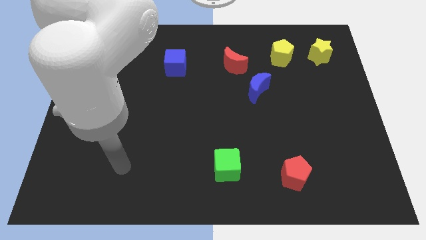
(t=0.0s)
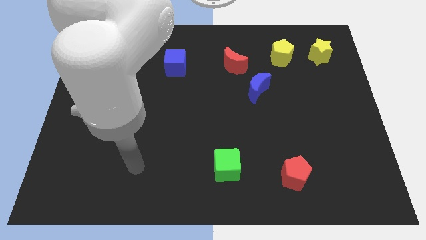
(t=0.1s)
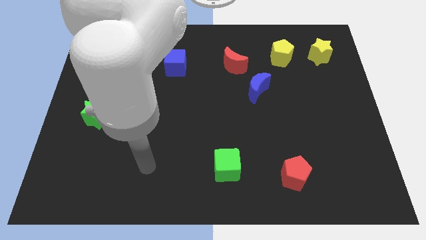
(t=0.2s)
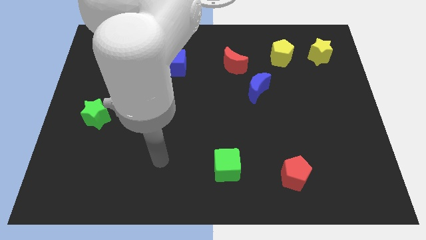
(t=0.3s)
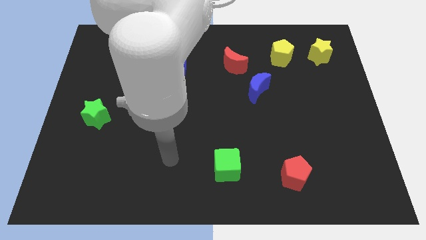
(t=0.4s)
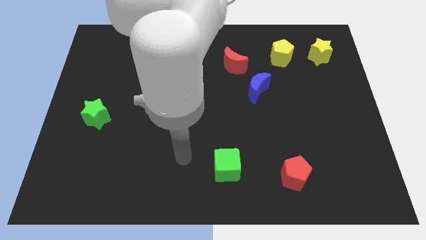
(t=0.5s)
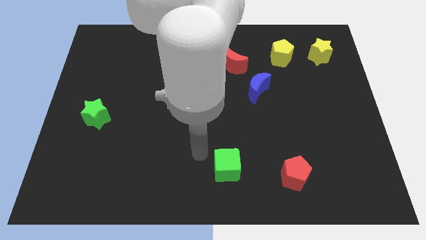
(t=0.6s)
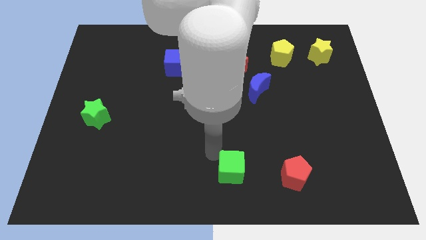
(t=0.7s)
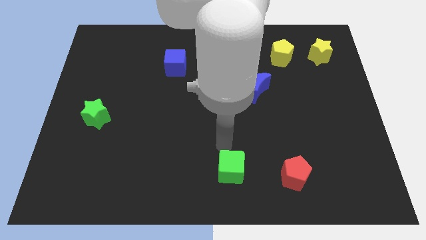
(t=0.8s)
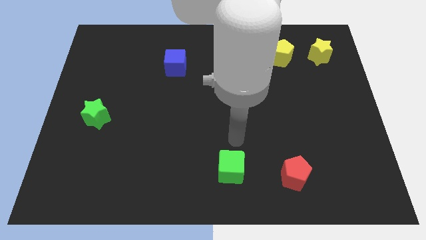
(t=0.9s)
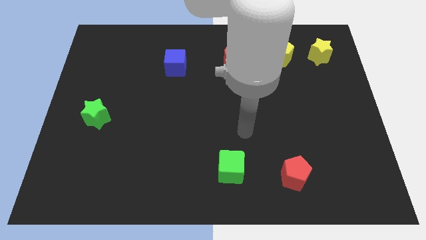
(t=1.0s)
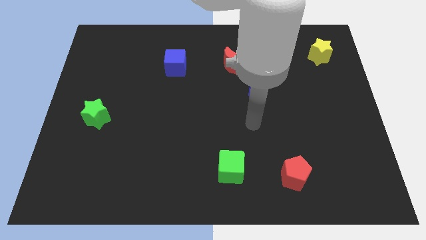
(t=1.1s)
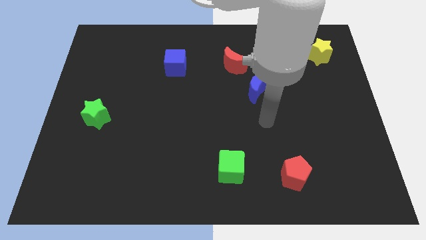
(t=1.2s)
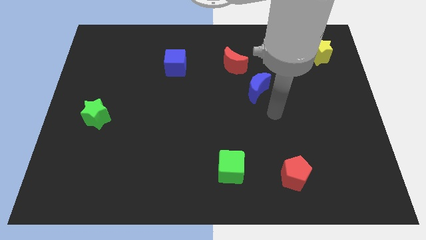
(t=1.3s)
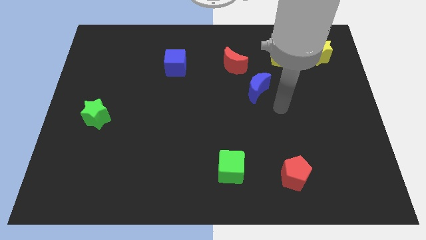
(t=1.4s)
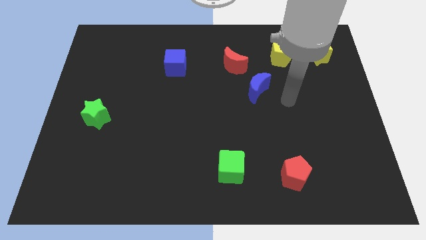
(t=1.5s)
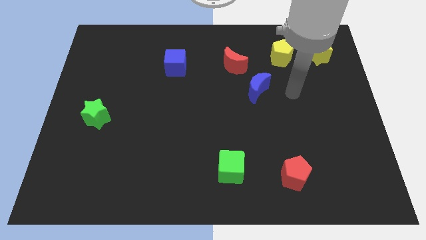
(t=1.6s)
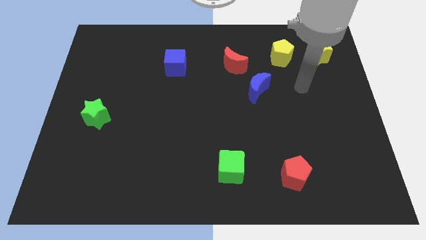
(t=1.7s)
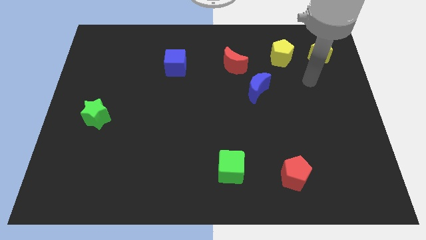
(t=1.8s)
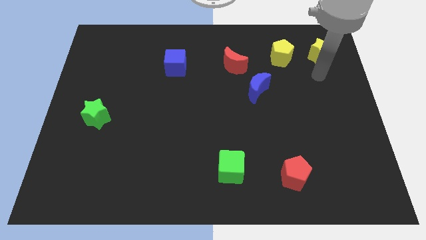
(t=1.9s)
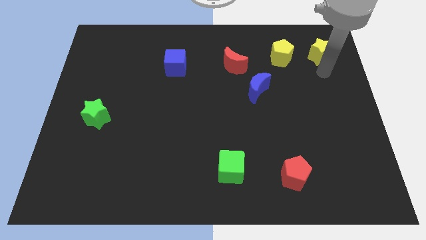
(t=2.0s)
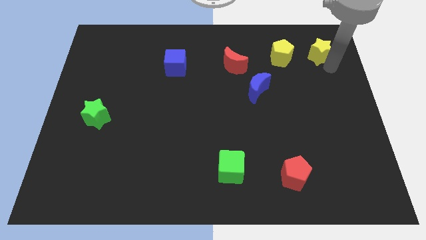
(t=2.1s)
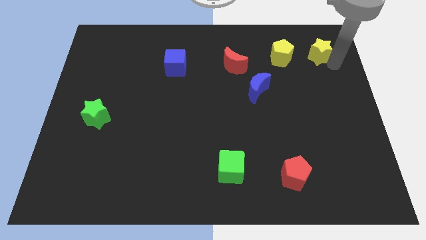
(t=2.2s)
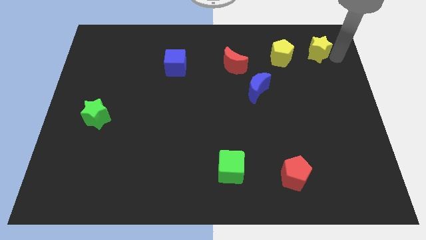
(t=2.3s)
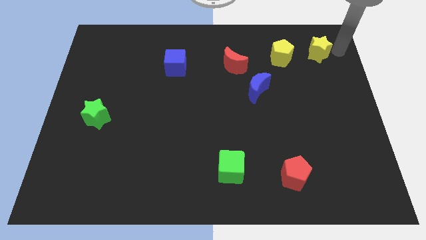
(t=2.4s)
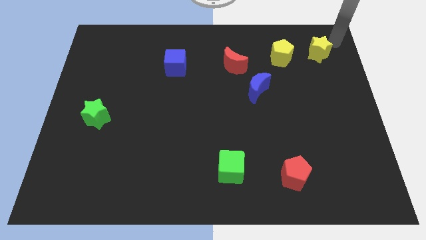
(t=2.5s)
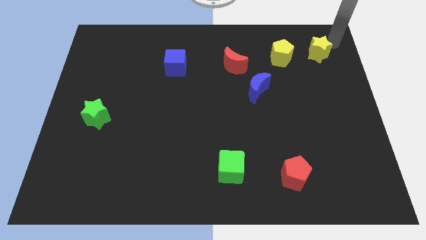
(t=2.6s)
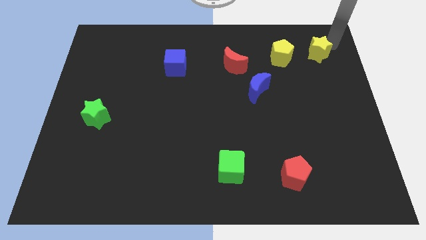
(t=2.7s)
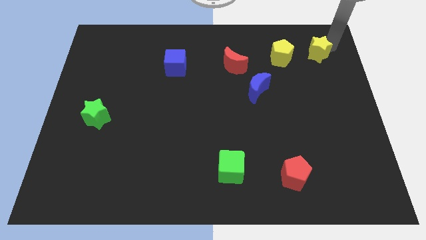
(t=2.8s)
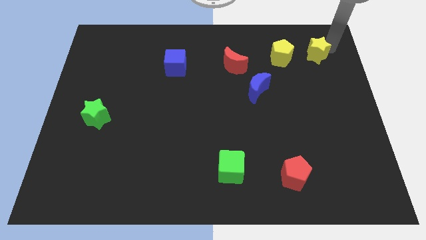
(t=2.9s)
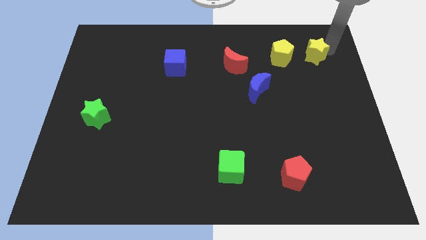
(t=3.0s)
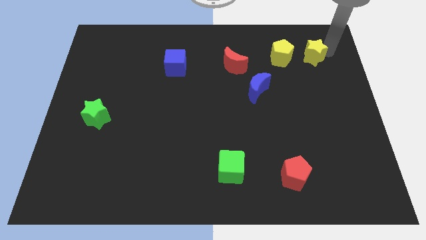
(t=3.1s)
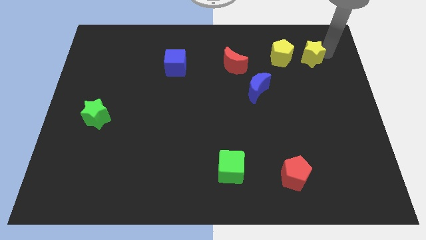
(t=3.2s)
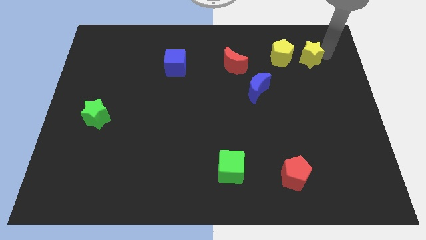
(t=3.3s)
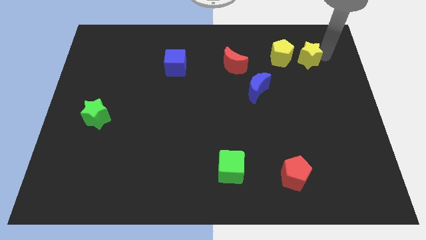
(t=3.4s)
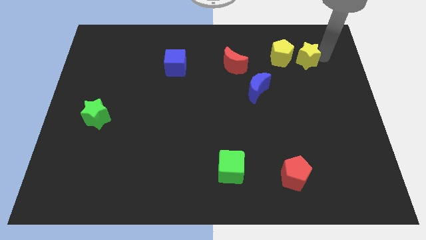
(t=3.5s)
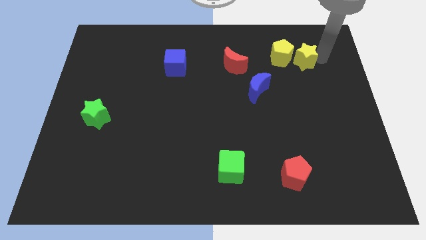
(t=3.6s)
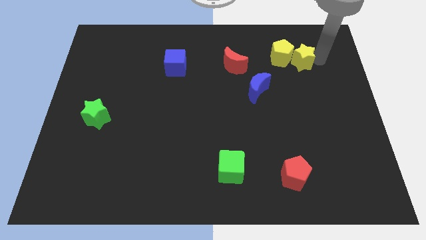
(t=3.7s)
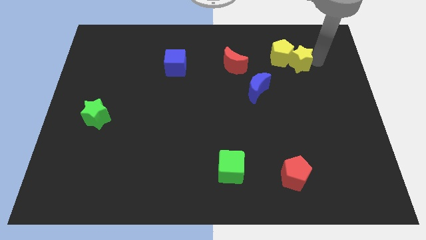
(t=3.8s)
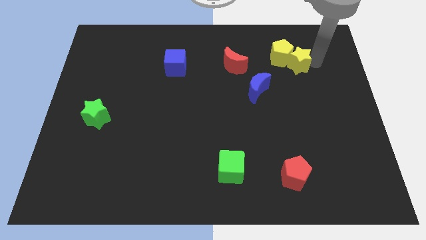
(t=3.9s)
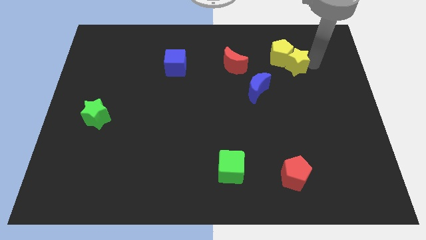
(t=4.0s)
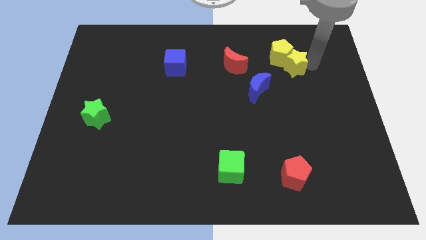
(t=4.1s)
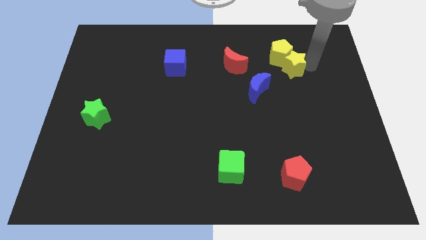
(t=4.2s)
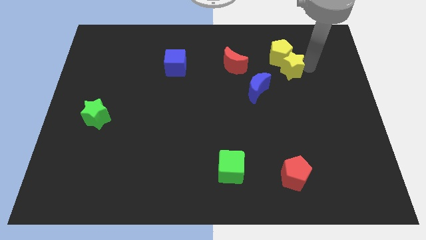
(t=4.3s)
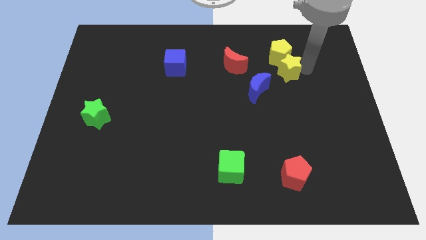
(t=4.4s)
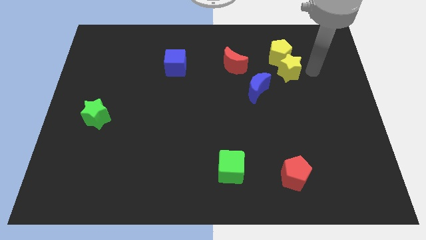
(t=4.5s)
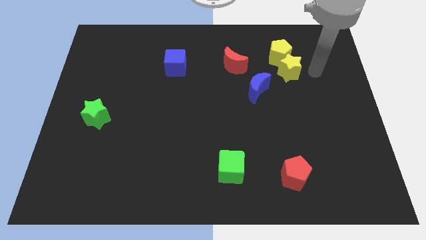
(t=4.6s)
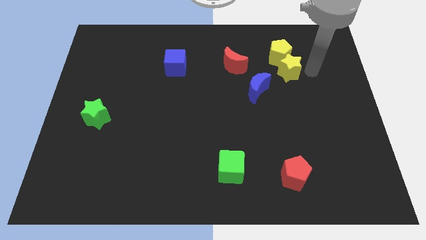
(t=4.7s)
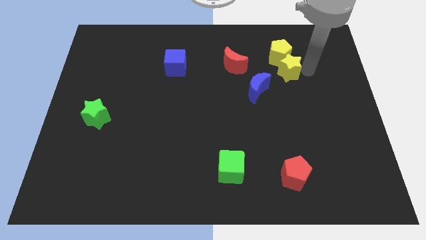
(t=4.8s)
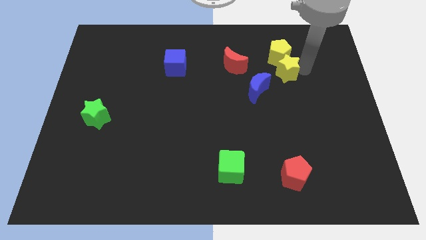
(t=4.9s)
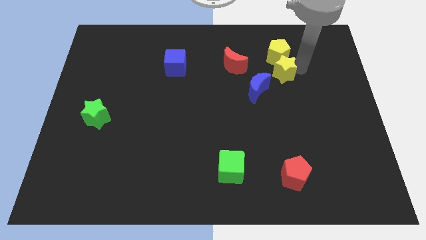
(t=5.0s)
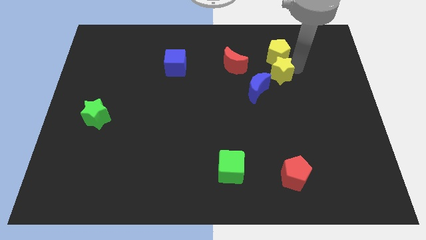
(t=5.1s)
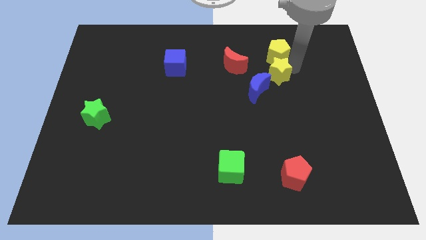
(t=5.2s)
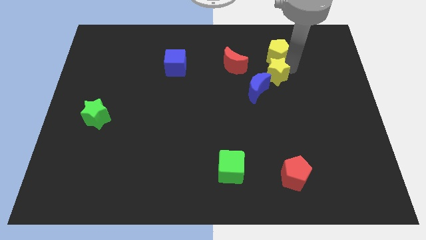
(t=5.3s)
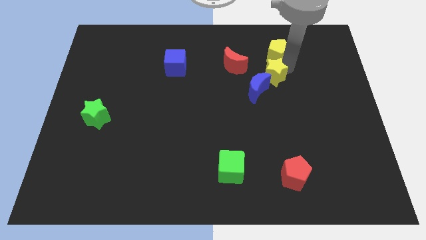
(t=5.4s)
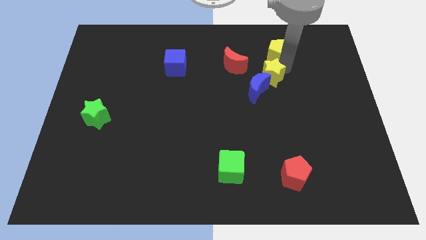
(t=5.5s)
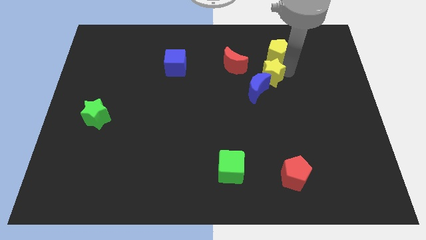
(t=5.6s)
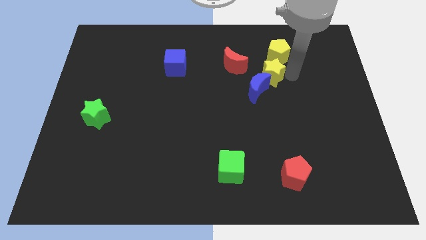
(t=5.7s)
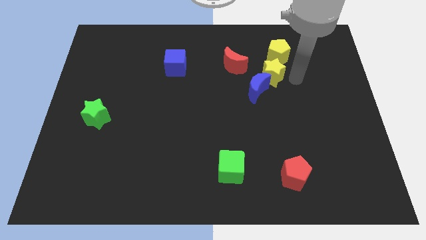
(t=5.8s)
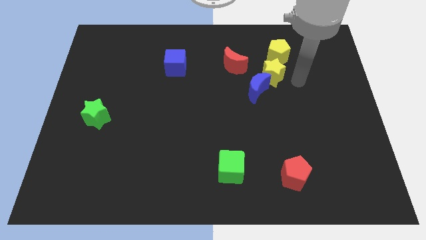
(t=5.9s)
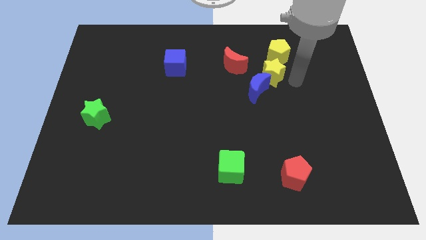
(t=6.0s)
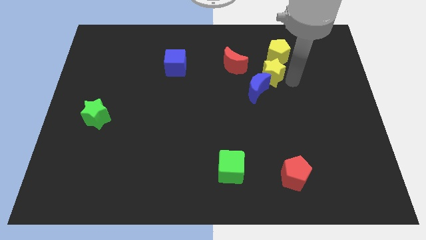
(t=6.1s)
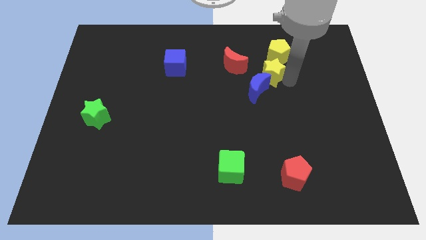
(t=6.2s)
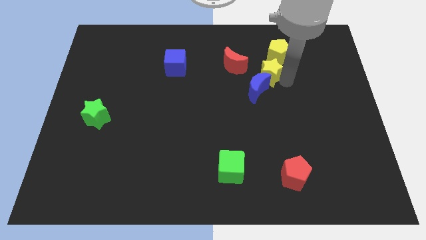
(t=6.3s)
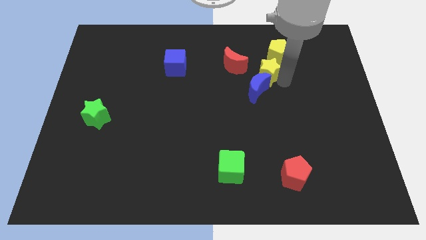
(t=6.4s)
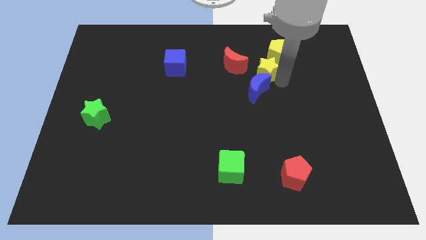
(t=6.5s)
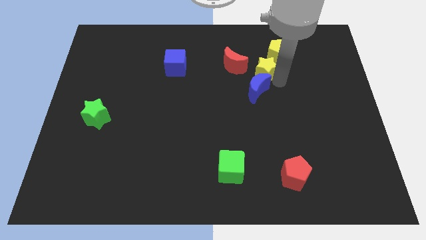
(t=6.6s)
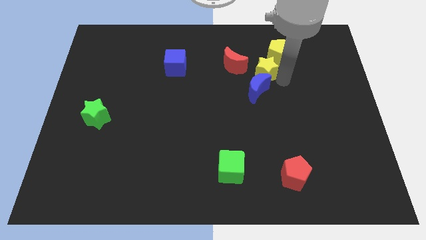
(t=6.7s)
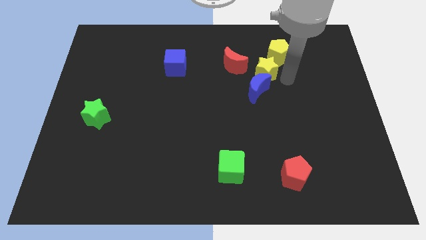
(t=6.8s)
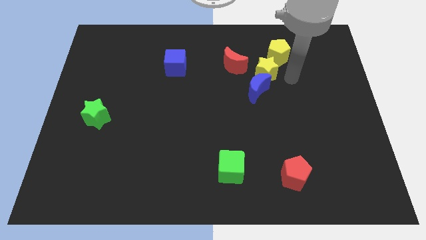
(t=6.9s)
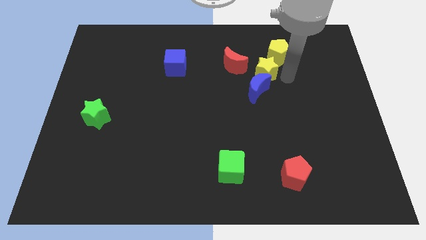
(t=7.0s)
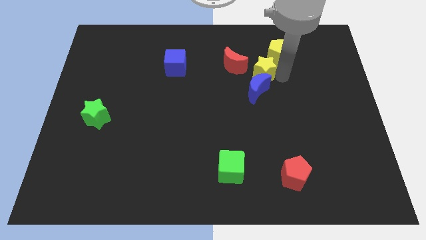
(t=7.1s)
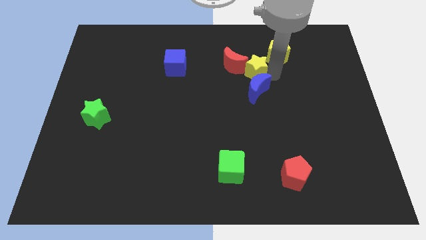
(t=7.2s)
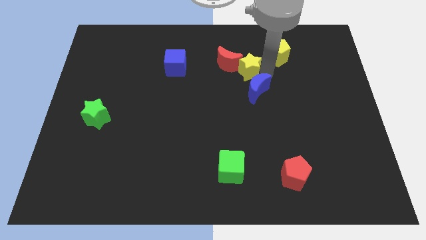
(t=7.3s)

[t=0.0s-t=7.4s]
put the yellow star close to the red moon

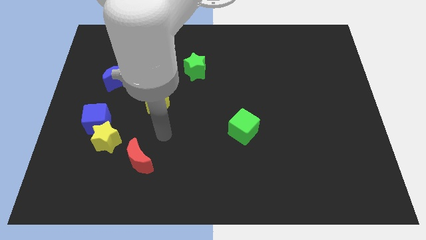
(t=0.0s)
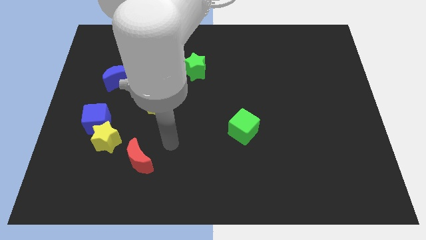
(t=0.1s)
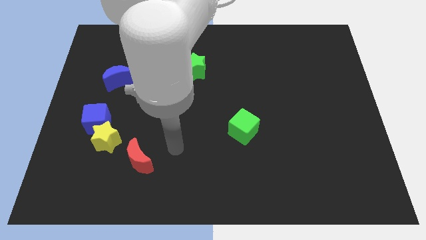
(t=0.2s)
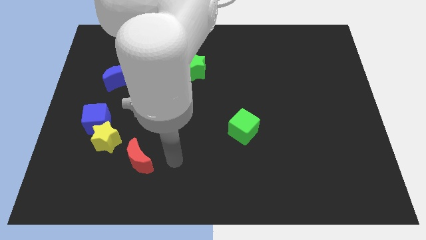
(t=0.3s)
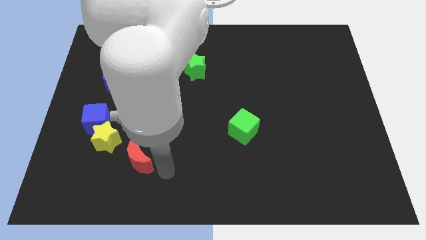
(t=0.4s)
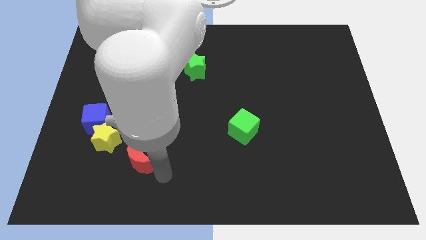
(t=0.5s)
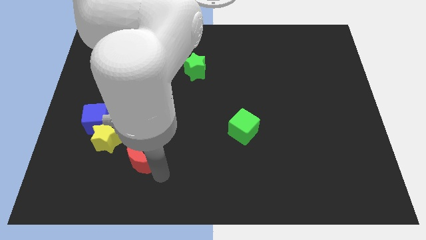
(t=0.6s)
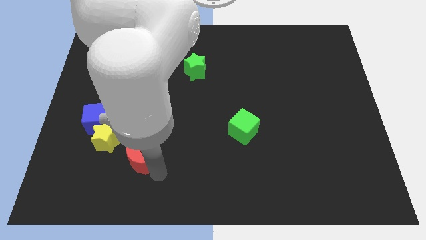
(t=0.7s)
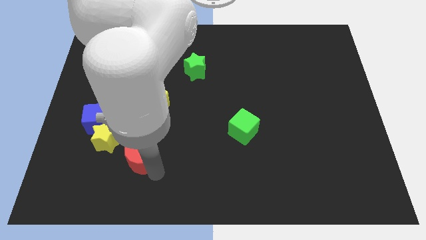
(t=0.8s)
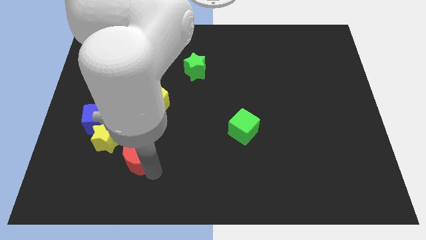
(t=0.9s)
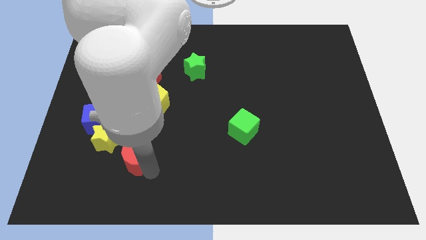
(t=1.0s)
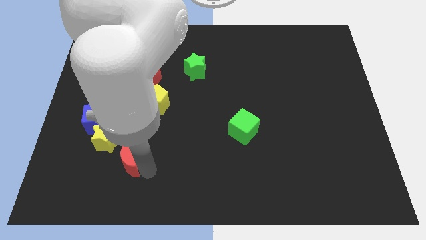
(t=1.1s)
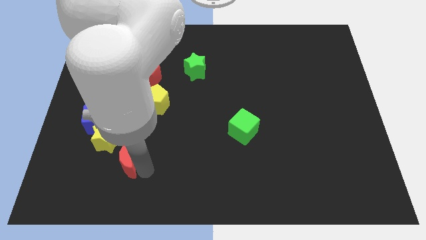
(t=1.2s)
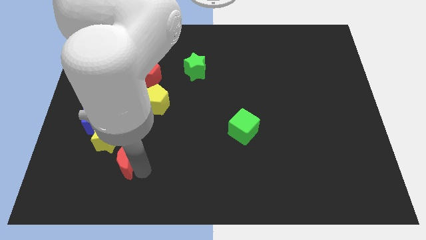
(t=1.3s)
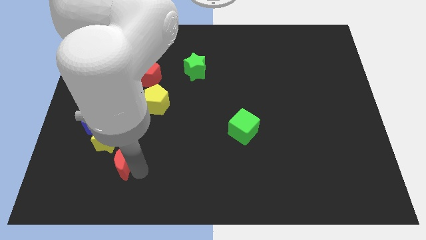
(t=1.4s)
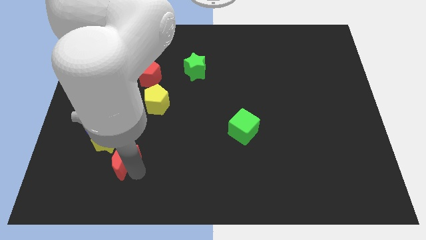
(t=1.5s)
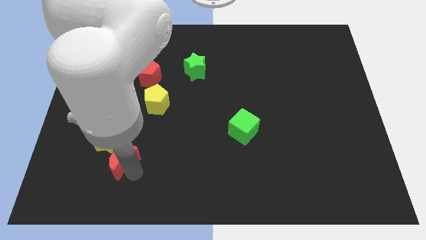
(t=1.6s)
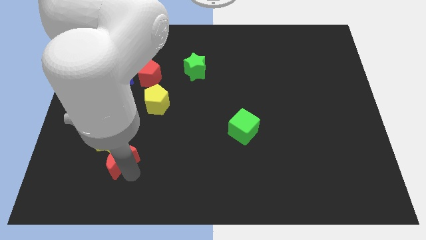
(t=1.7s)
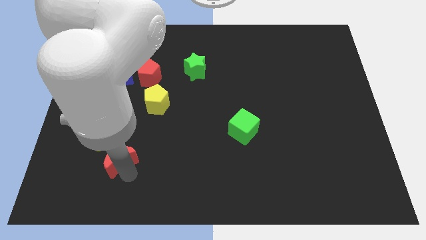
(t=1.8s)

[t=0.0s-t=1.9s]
slide the red moon towards the yellow star
